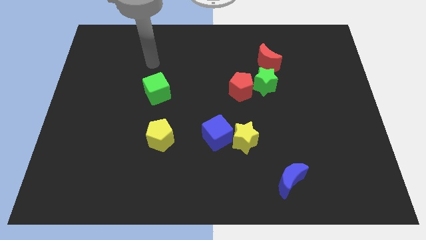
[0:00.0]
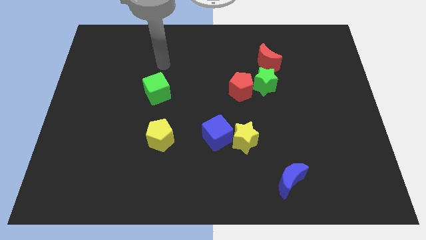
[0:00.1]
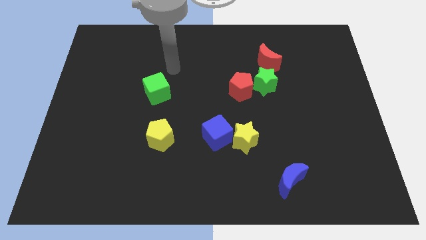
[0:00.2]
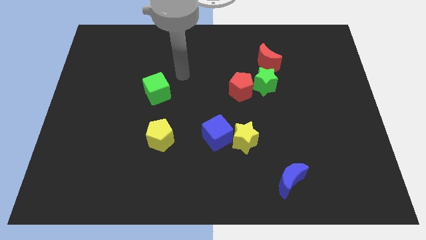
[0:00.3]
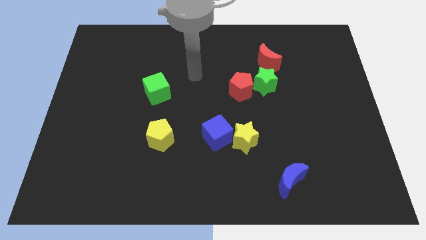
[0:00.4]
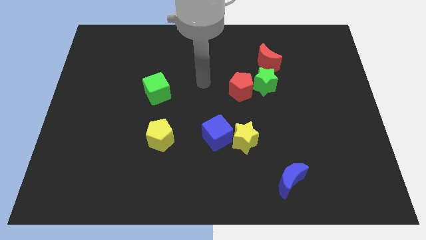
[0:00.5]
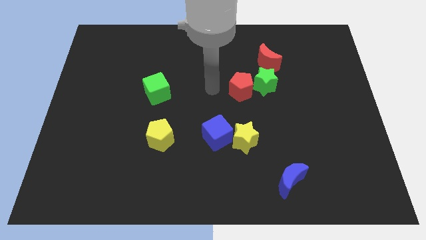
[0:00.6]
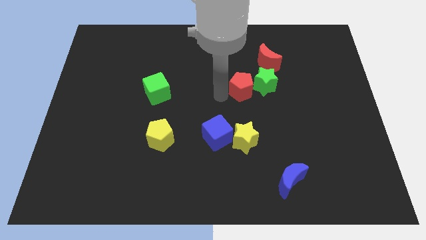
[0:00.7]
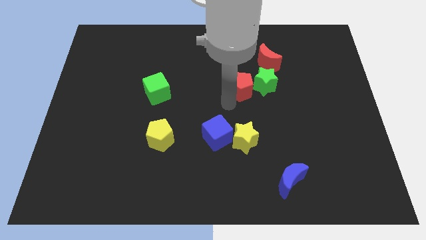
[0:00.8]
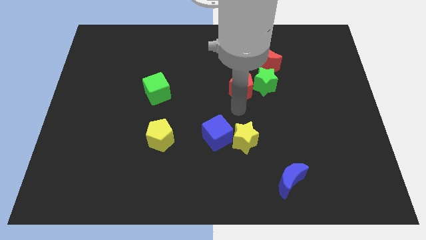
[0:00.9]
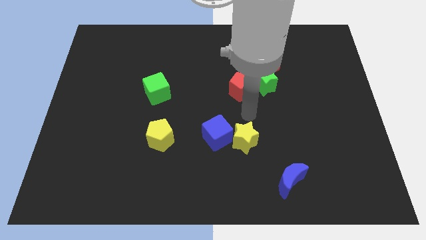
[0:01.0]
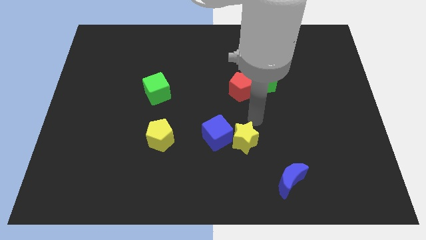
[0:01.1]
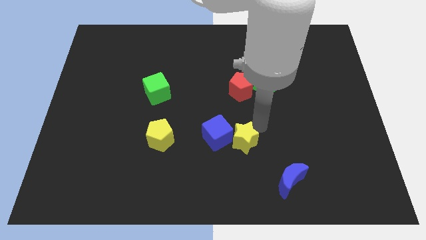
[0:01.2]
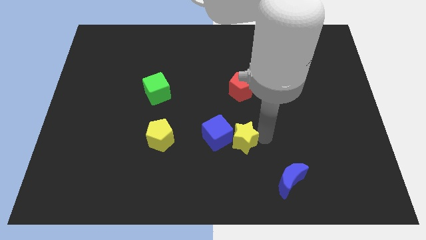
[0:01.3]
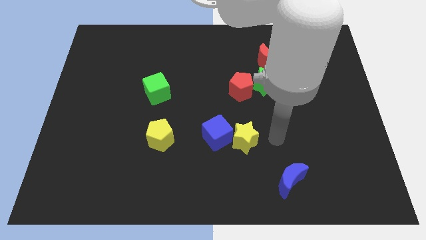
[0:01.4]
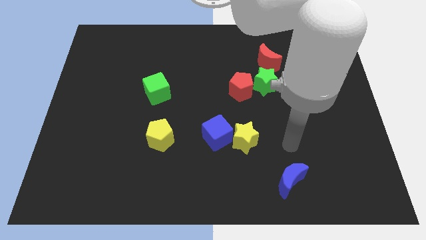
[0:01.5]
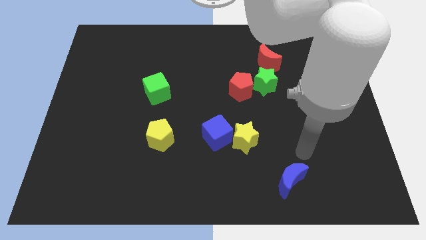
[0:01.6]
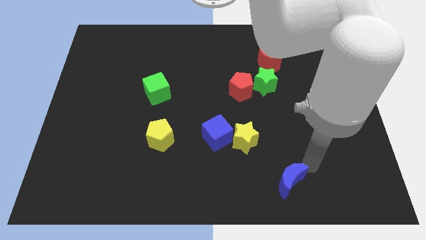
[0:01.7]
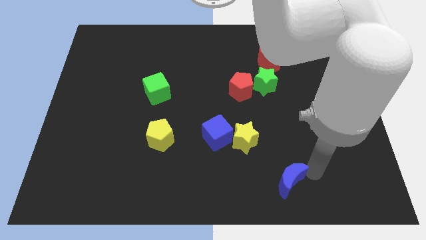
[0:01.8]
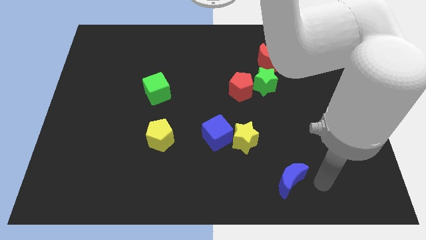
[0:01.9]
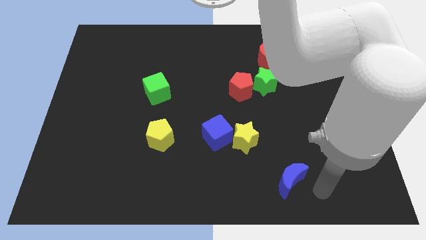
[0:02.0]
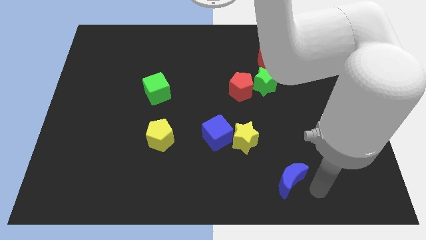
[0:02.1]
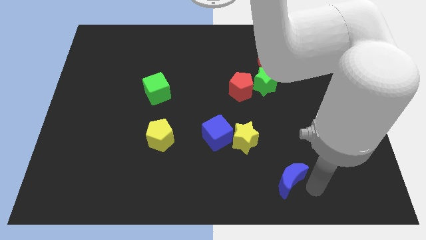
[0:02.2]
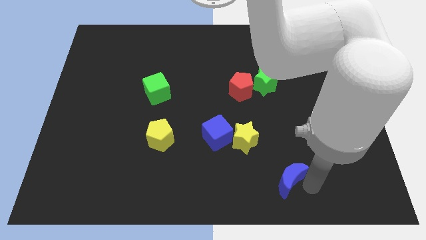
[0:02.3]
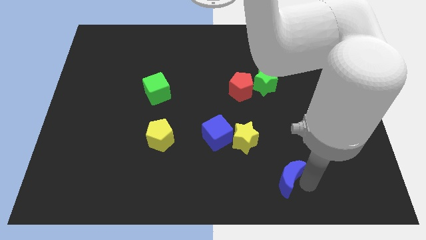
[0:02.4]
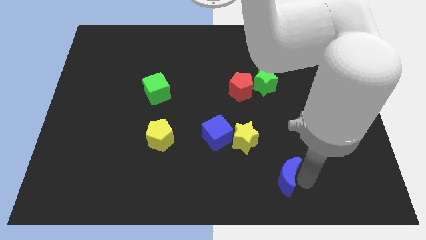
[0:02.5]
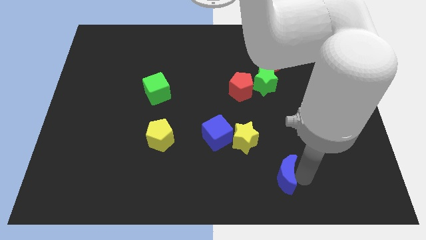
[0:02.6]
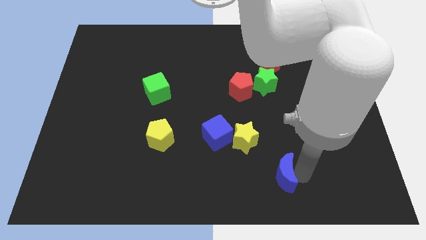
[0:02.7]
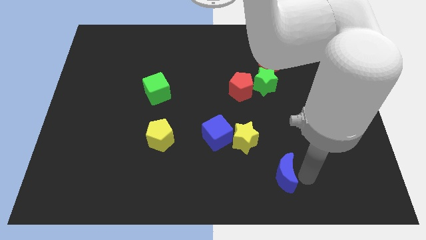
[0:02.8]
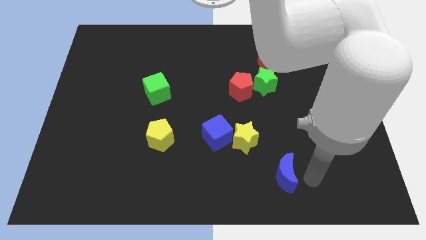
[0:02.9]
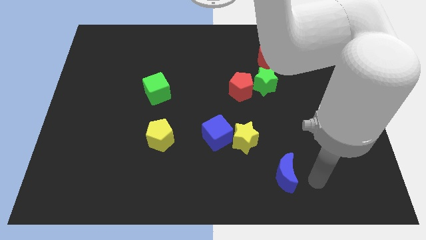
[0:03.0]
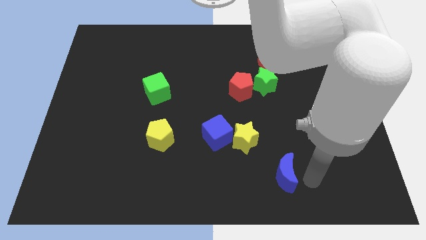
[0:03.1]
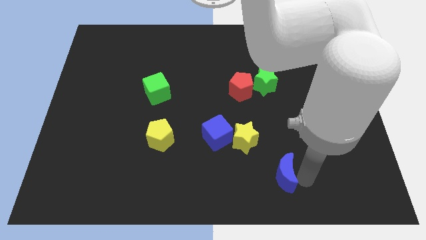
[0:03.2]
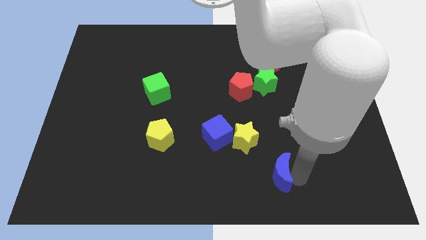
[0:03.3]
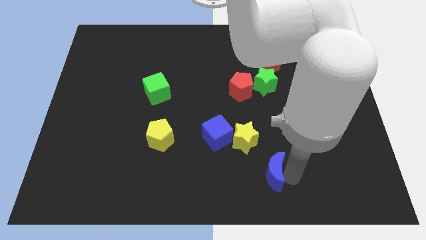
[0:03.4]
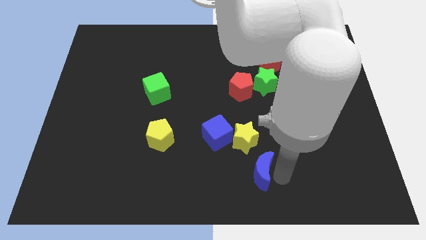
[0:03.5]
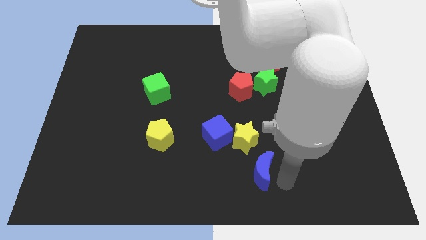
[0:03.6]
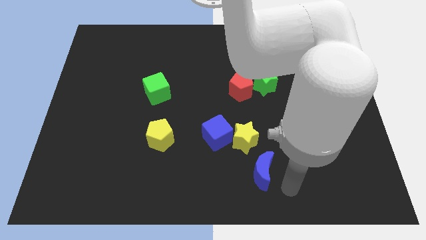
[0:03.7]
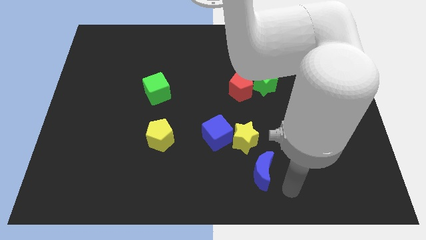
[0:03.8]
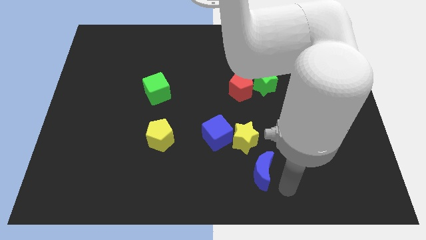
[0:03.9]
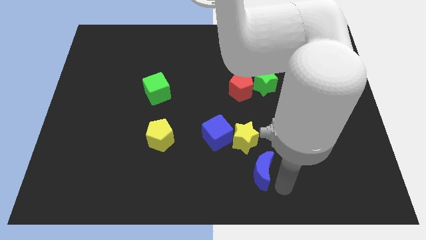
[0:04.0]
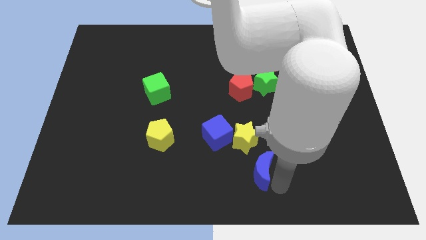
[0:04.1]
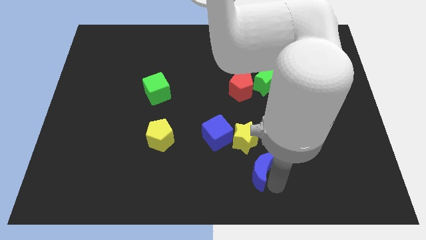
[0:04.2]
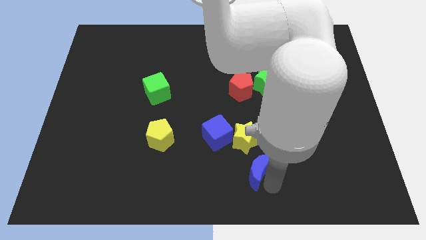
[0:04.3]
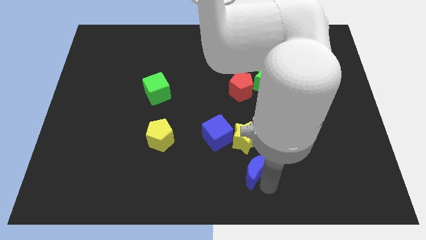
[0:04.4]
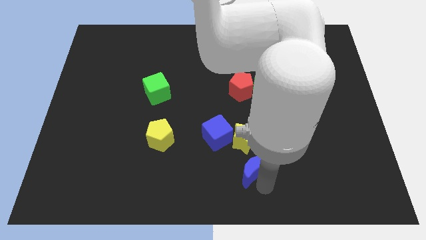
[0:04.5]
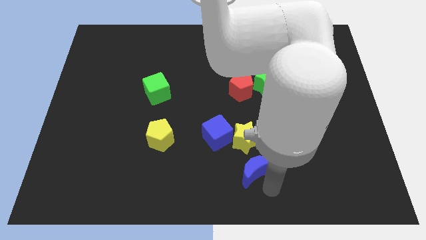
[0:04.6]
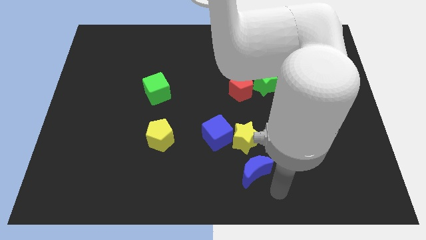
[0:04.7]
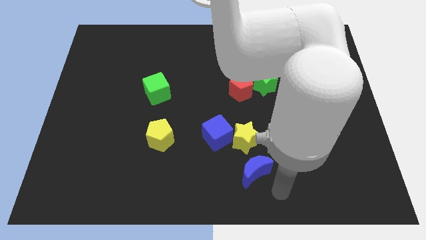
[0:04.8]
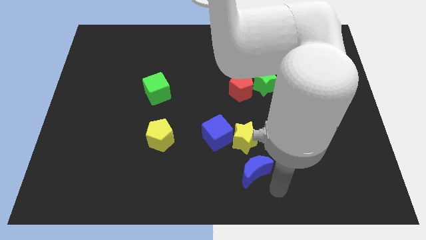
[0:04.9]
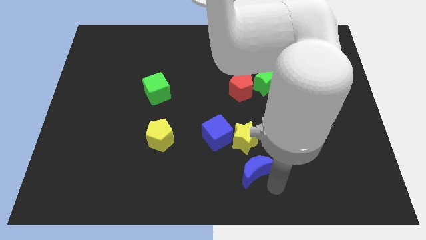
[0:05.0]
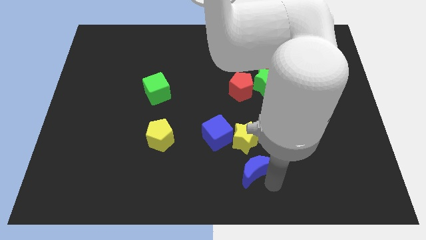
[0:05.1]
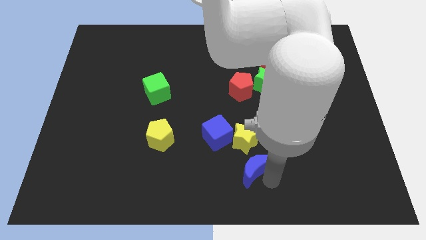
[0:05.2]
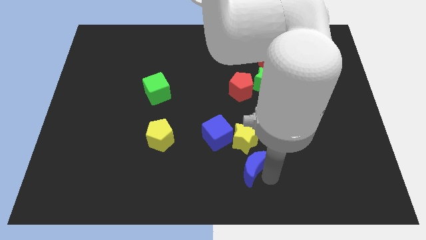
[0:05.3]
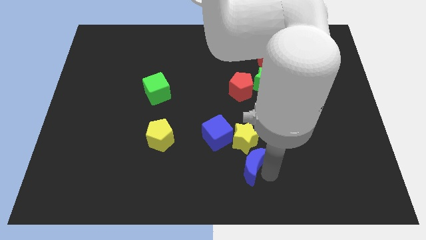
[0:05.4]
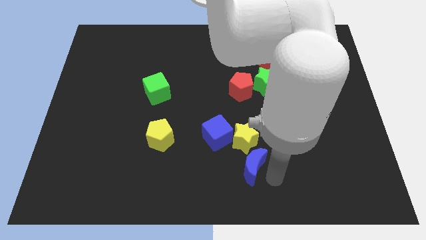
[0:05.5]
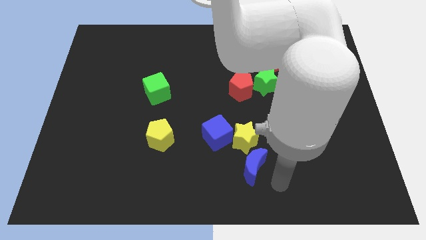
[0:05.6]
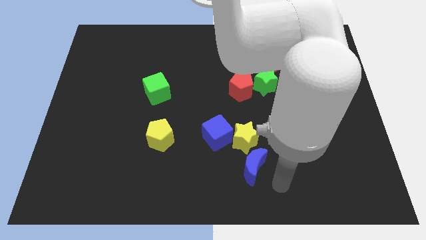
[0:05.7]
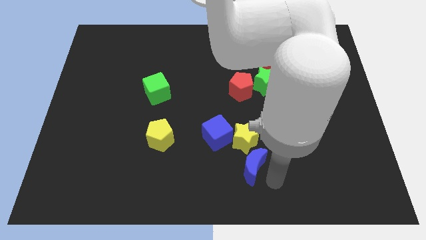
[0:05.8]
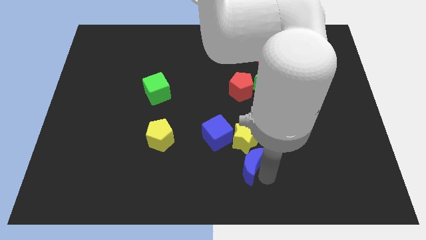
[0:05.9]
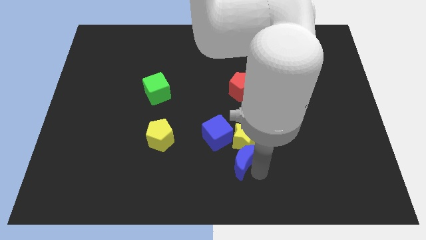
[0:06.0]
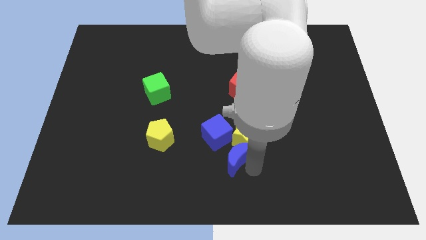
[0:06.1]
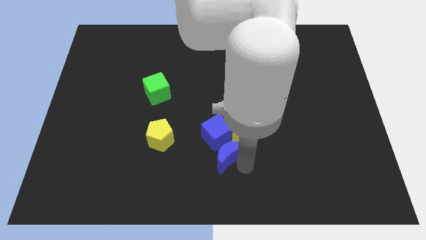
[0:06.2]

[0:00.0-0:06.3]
slide the blue moon next to the blue cube

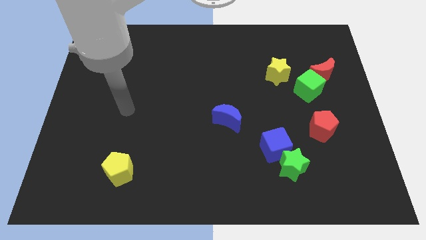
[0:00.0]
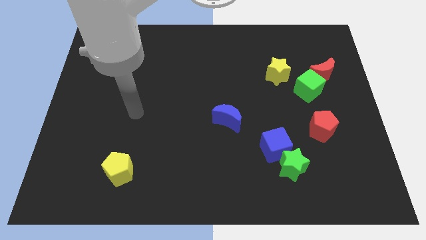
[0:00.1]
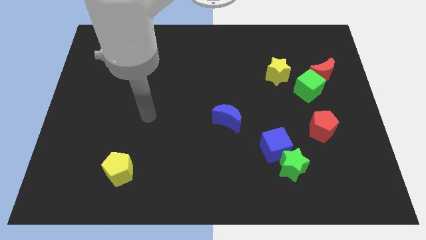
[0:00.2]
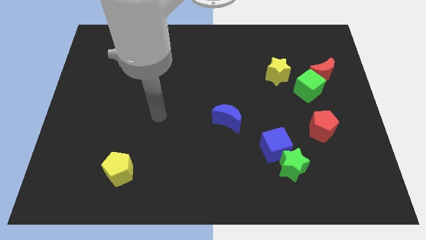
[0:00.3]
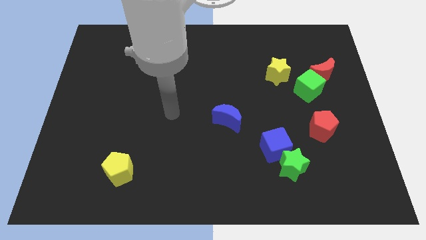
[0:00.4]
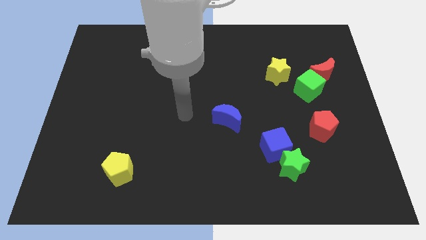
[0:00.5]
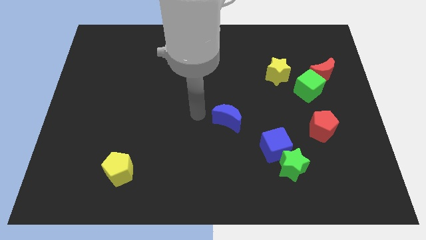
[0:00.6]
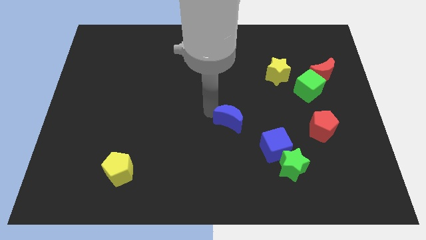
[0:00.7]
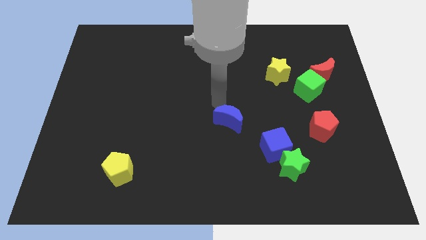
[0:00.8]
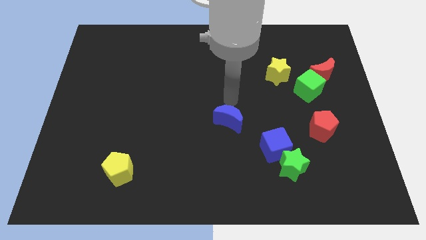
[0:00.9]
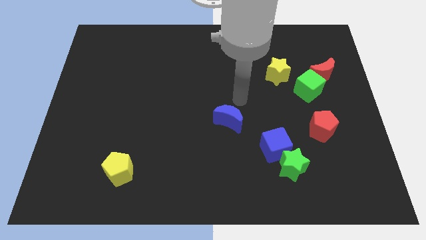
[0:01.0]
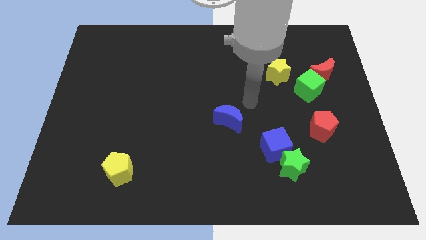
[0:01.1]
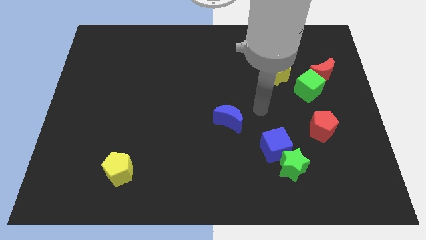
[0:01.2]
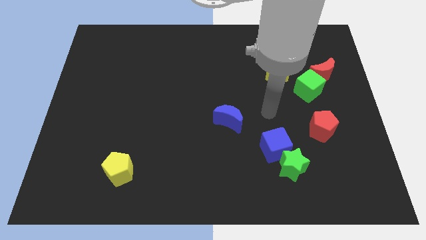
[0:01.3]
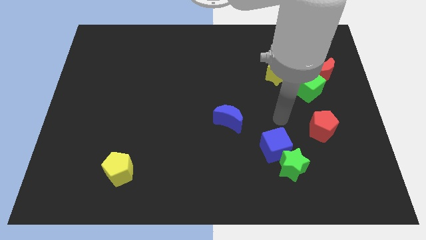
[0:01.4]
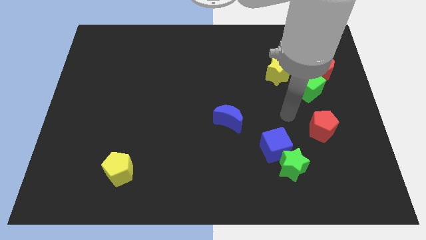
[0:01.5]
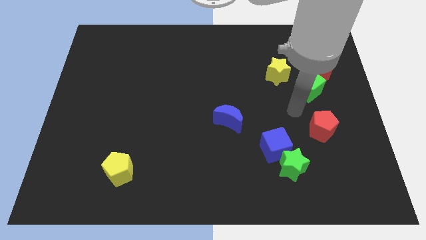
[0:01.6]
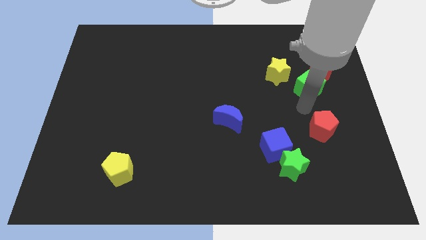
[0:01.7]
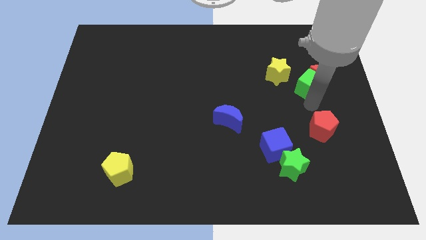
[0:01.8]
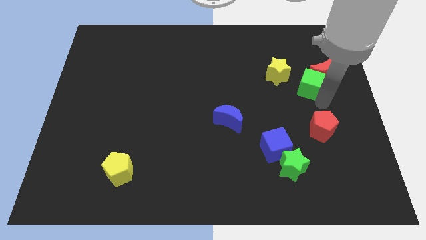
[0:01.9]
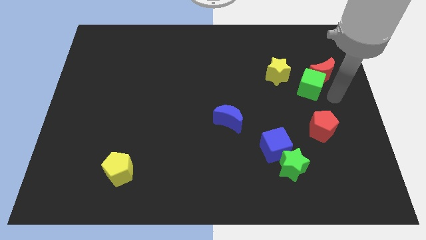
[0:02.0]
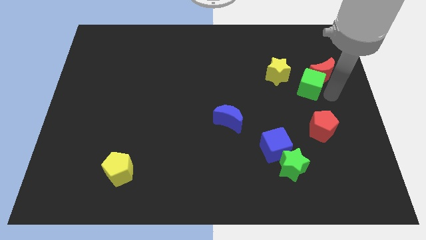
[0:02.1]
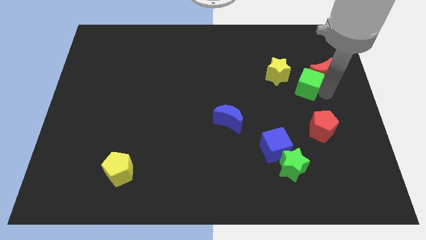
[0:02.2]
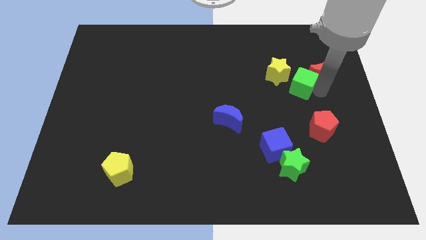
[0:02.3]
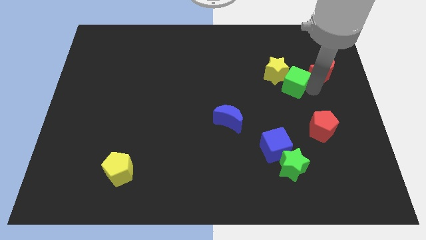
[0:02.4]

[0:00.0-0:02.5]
put the green cube to the yellow star
